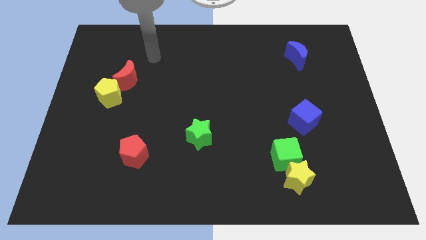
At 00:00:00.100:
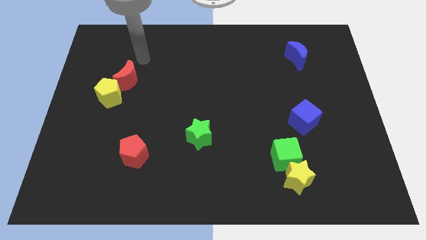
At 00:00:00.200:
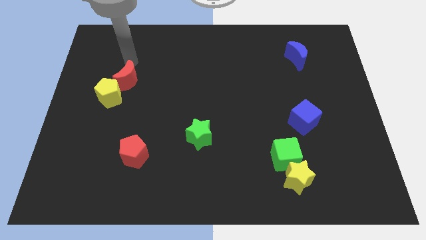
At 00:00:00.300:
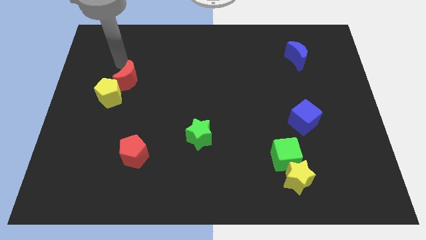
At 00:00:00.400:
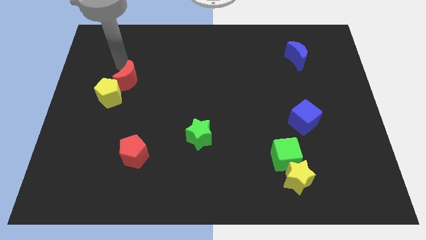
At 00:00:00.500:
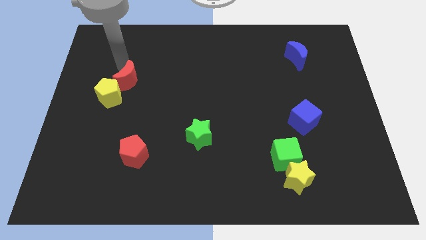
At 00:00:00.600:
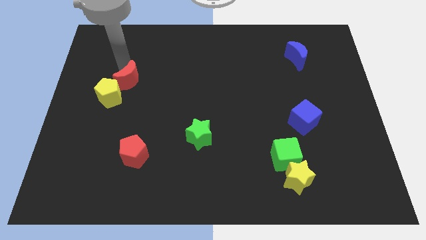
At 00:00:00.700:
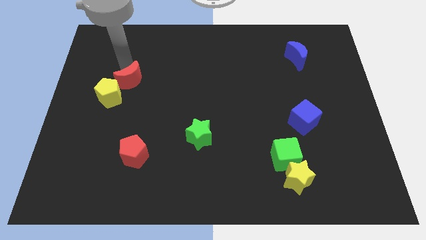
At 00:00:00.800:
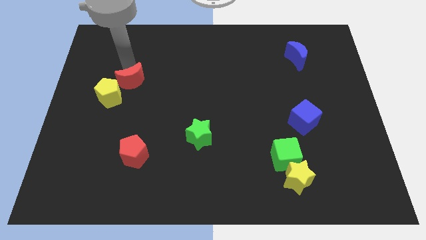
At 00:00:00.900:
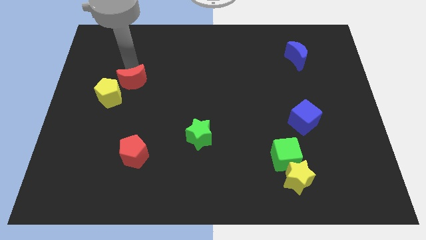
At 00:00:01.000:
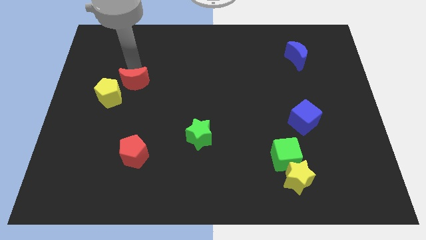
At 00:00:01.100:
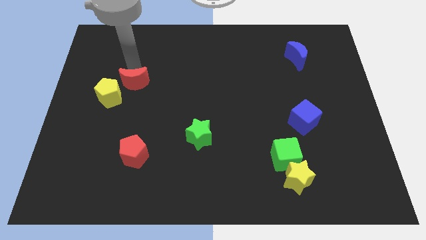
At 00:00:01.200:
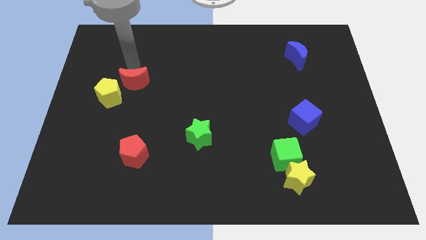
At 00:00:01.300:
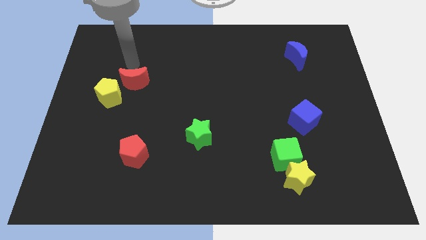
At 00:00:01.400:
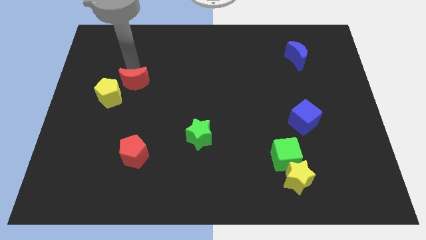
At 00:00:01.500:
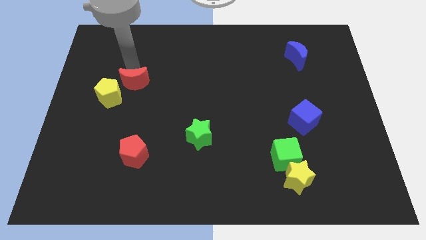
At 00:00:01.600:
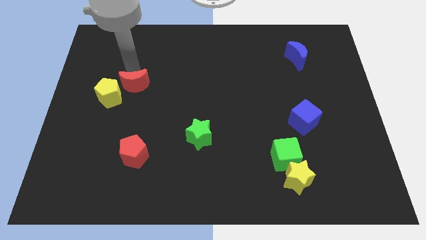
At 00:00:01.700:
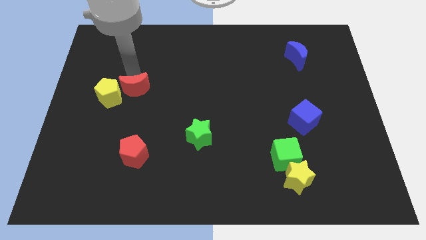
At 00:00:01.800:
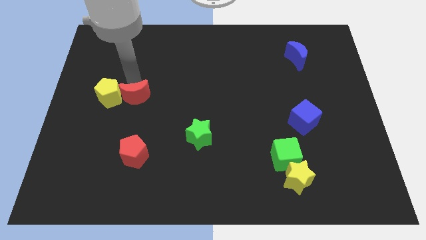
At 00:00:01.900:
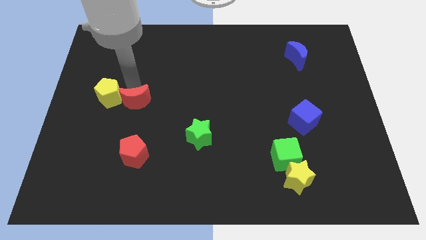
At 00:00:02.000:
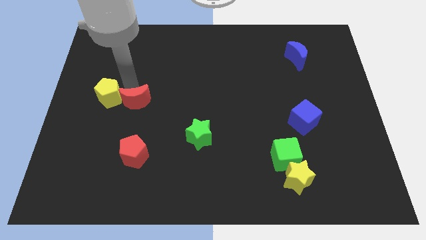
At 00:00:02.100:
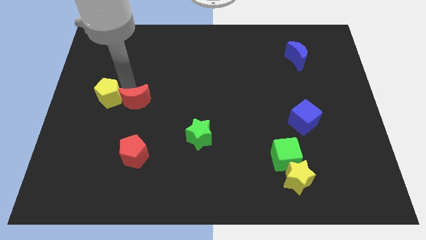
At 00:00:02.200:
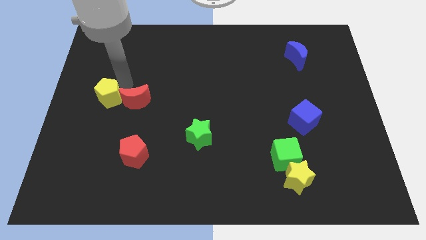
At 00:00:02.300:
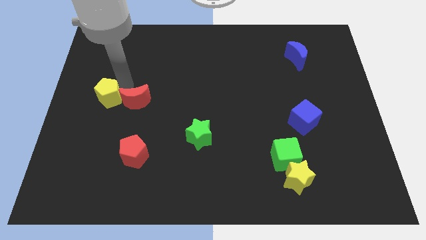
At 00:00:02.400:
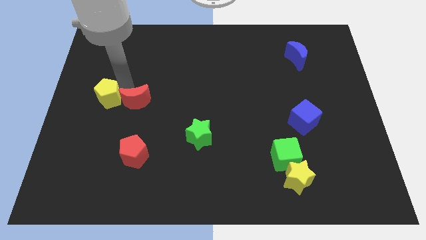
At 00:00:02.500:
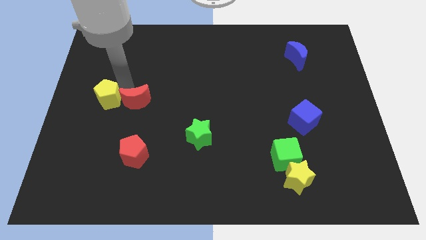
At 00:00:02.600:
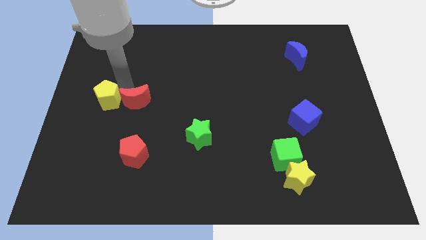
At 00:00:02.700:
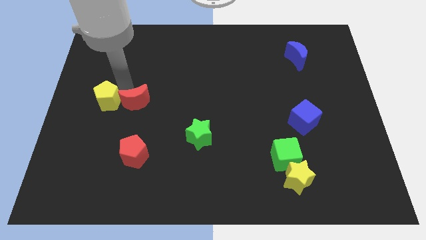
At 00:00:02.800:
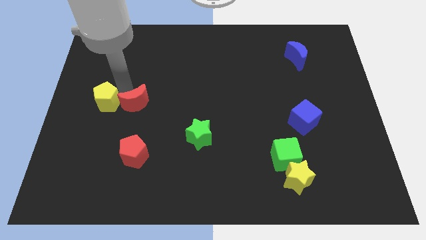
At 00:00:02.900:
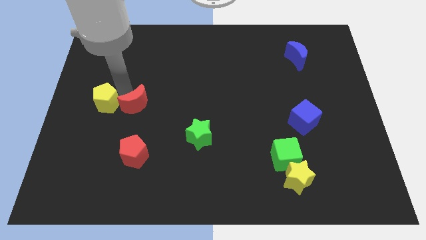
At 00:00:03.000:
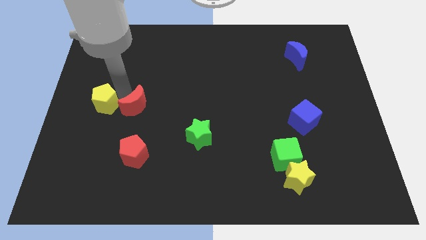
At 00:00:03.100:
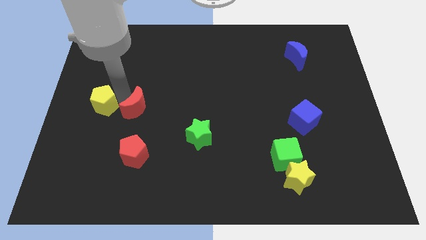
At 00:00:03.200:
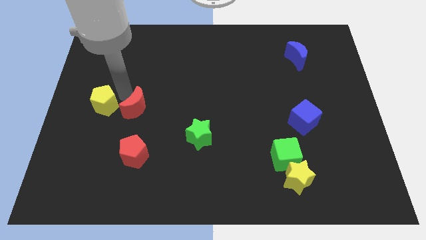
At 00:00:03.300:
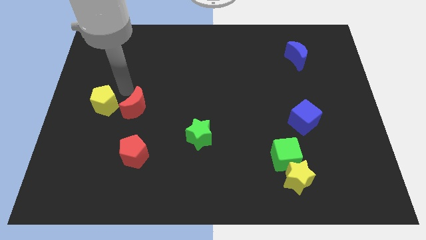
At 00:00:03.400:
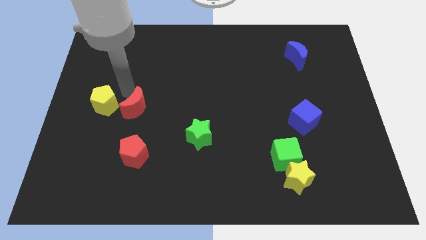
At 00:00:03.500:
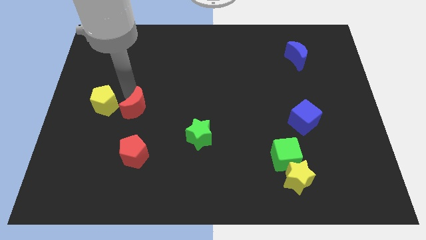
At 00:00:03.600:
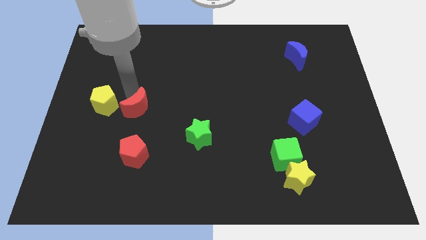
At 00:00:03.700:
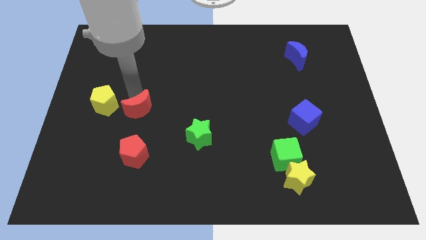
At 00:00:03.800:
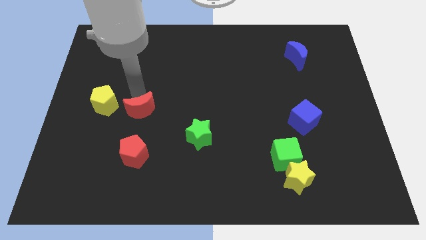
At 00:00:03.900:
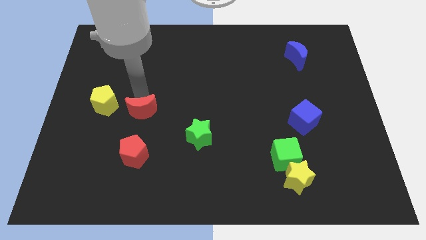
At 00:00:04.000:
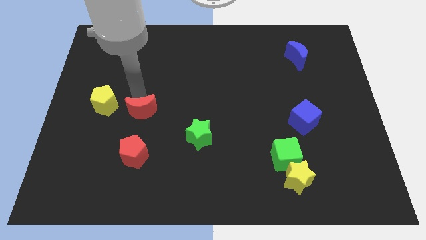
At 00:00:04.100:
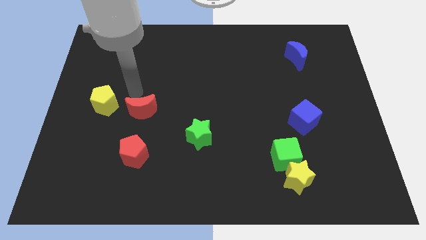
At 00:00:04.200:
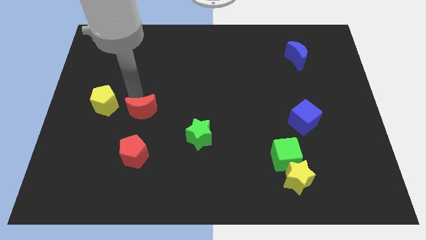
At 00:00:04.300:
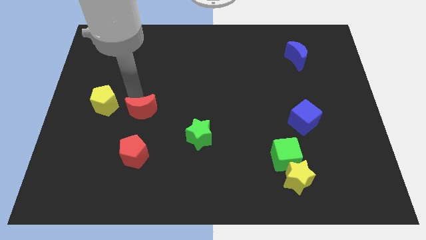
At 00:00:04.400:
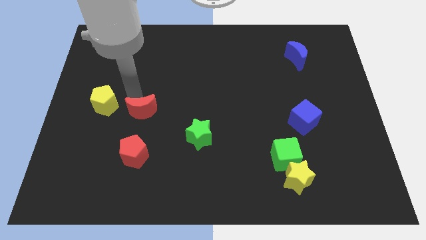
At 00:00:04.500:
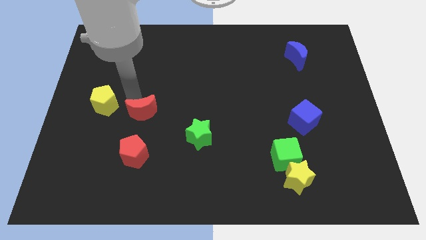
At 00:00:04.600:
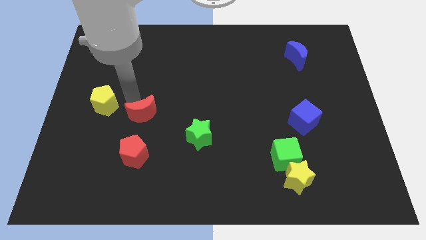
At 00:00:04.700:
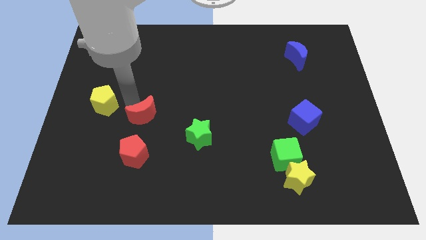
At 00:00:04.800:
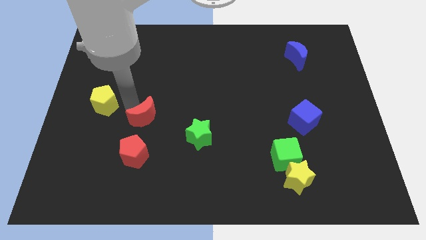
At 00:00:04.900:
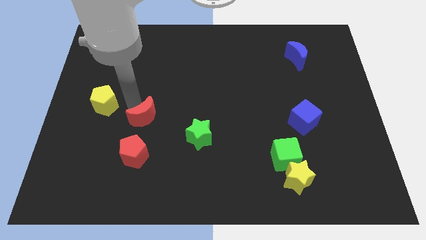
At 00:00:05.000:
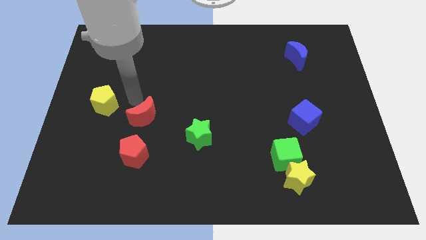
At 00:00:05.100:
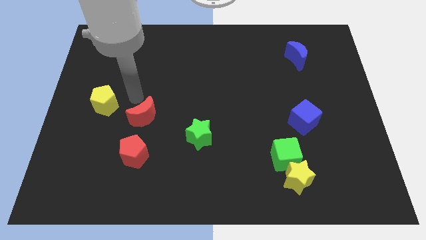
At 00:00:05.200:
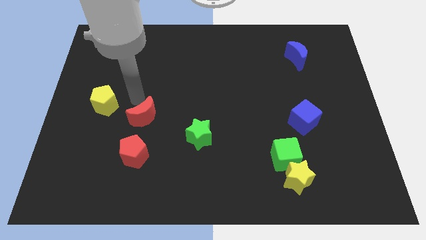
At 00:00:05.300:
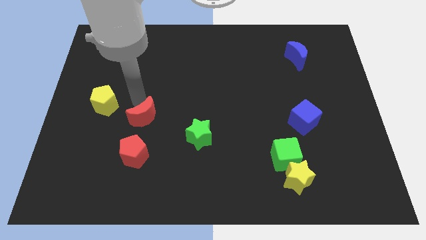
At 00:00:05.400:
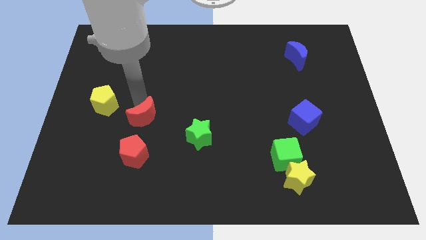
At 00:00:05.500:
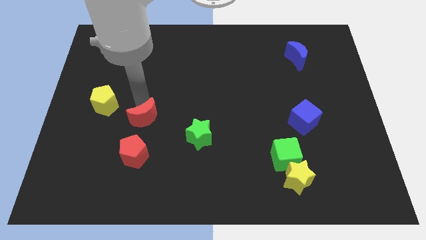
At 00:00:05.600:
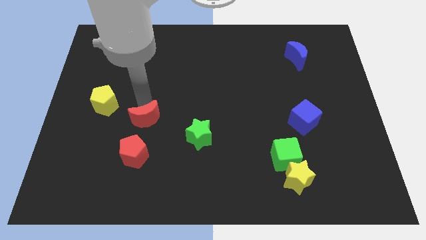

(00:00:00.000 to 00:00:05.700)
put the red moon left of the green star

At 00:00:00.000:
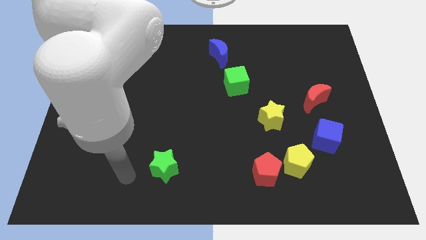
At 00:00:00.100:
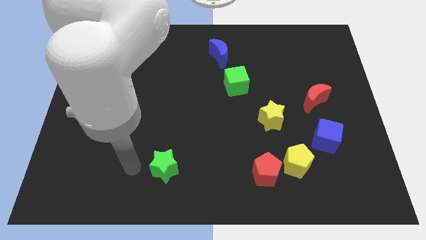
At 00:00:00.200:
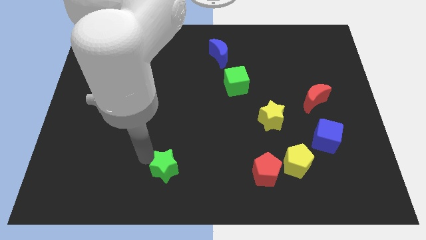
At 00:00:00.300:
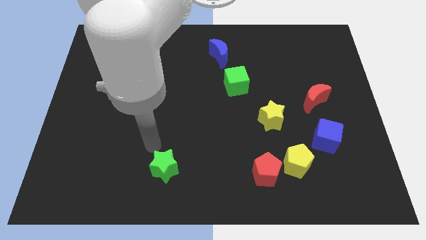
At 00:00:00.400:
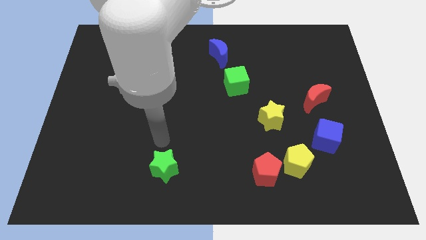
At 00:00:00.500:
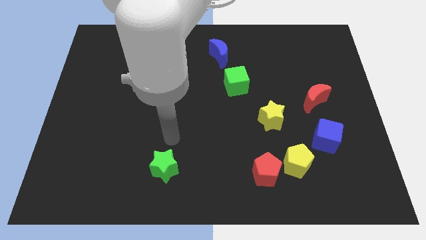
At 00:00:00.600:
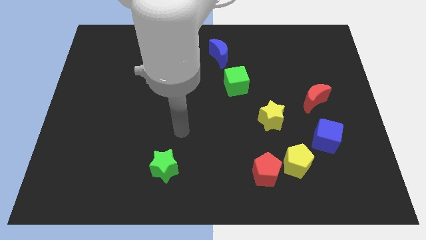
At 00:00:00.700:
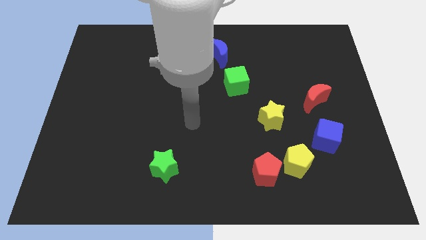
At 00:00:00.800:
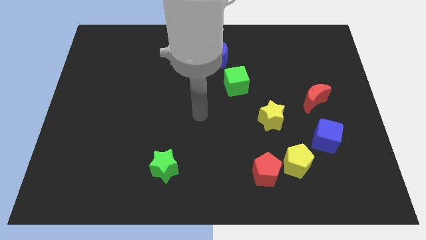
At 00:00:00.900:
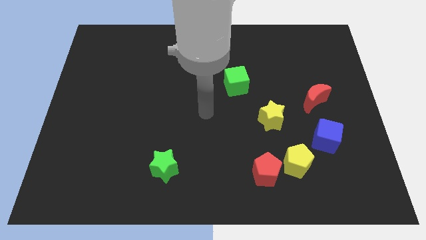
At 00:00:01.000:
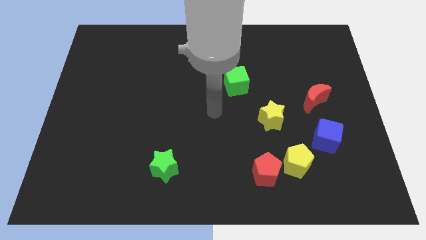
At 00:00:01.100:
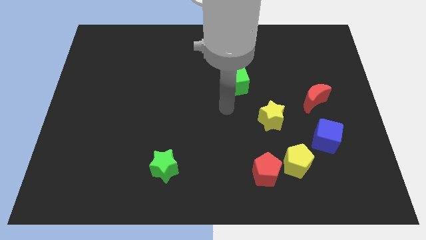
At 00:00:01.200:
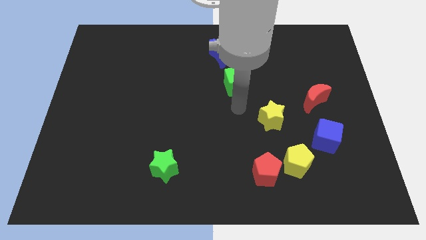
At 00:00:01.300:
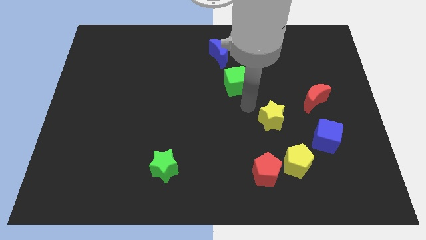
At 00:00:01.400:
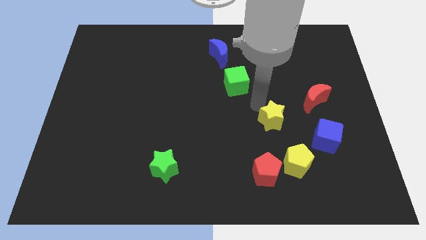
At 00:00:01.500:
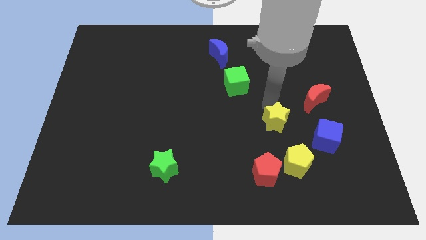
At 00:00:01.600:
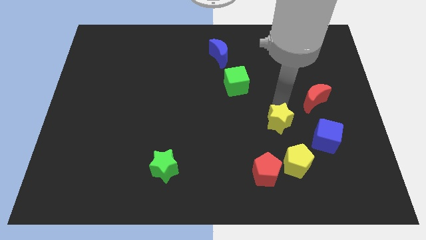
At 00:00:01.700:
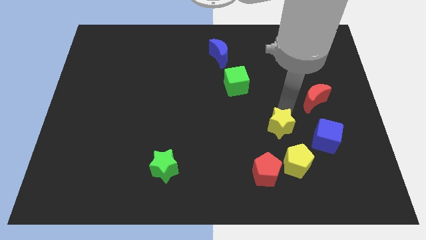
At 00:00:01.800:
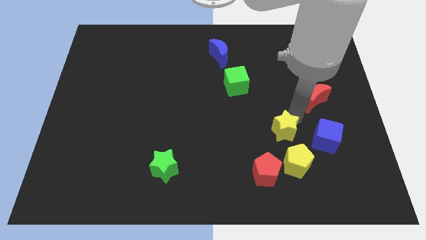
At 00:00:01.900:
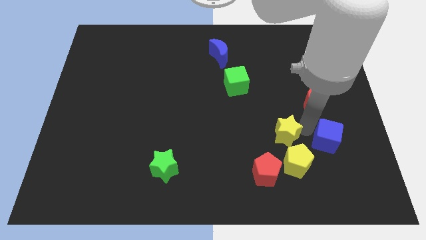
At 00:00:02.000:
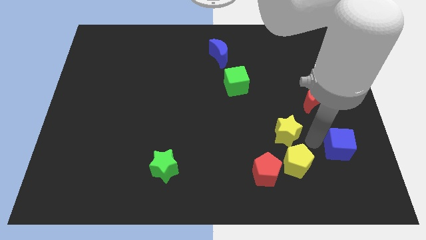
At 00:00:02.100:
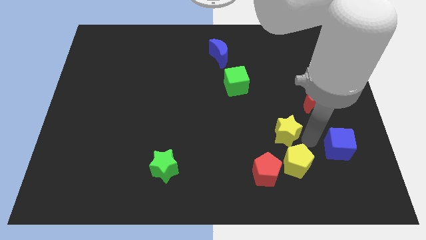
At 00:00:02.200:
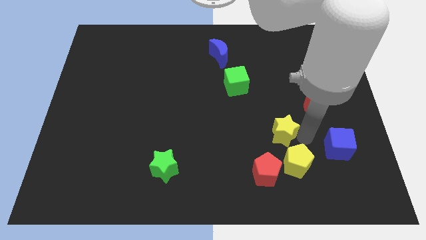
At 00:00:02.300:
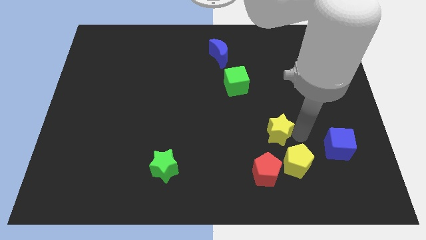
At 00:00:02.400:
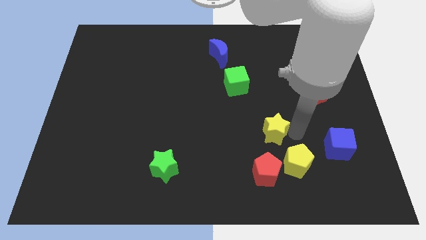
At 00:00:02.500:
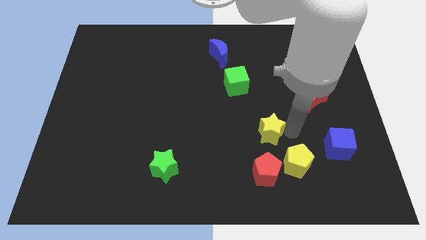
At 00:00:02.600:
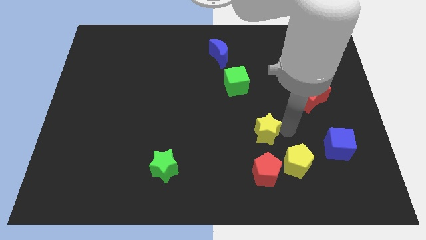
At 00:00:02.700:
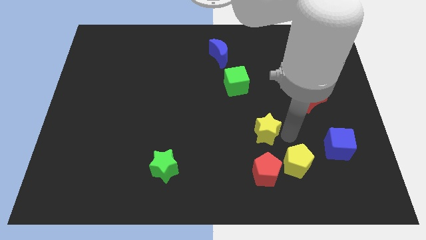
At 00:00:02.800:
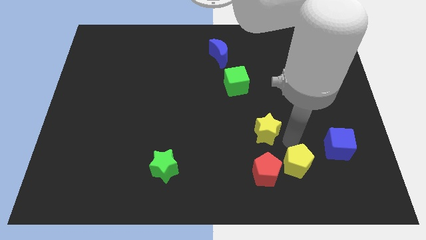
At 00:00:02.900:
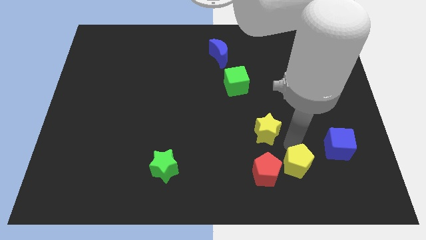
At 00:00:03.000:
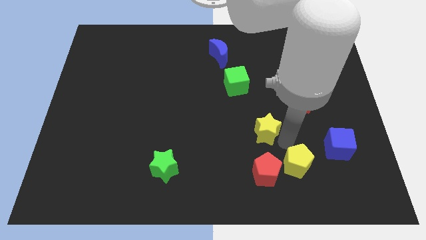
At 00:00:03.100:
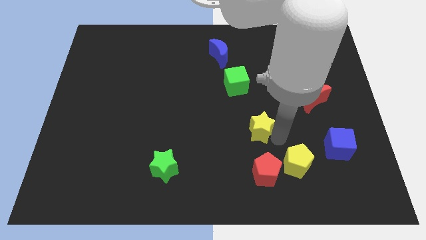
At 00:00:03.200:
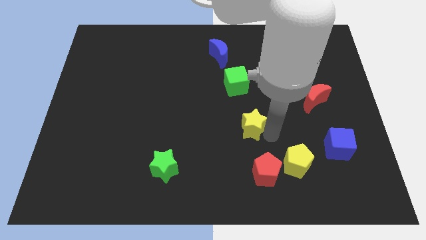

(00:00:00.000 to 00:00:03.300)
put the yellow star below the green cube
